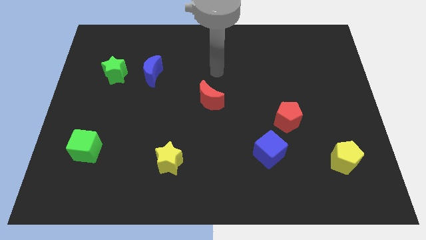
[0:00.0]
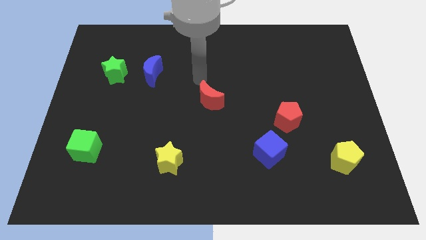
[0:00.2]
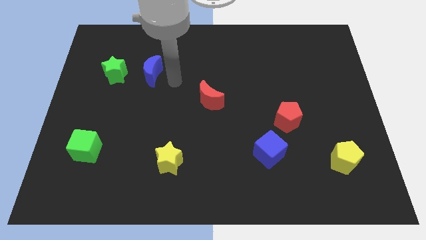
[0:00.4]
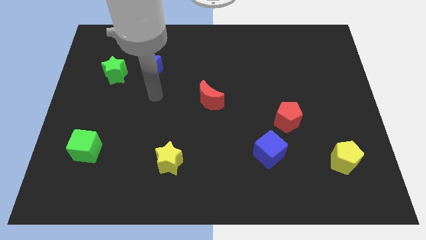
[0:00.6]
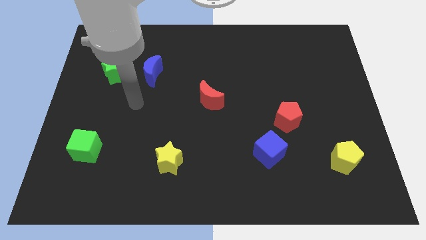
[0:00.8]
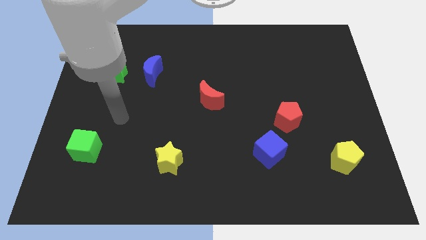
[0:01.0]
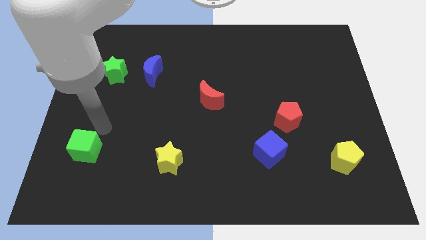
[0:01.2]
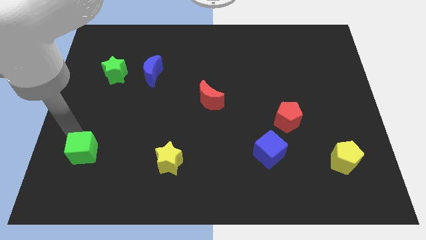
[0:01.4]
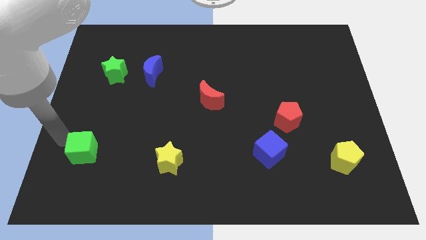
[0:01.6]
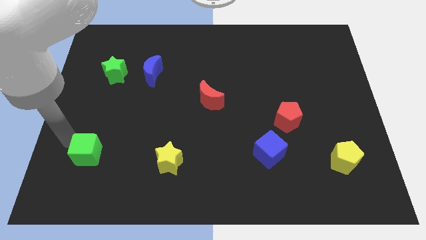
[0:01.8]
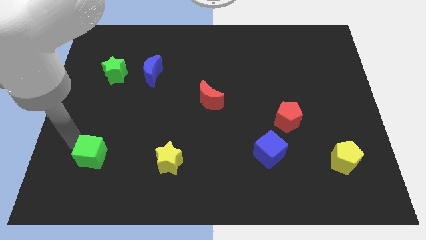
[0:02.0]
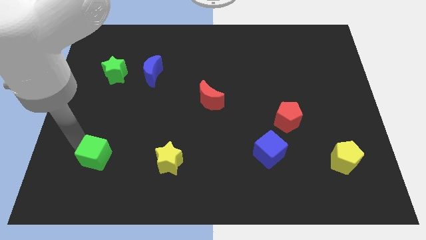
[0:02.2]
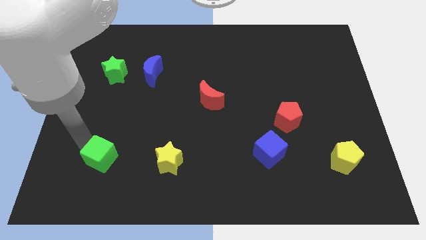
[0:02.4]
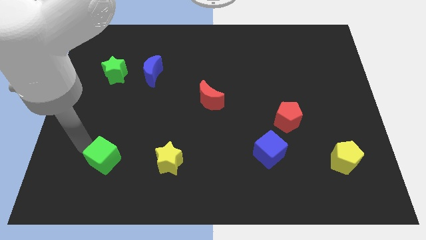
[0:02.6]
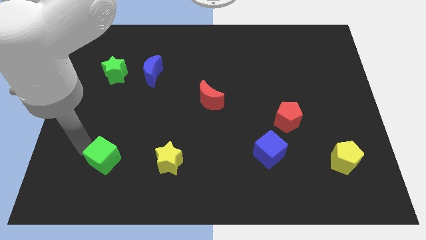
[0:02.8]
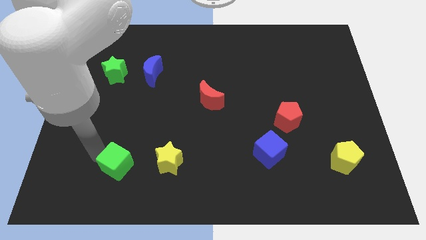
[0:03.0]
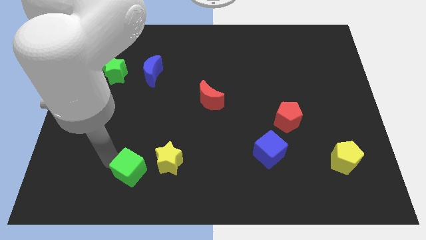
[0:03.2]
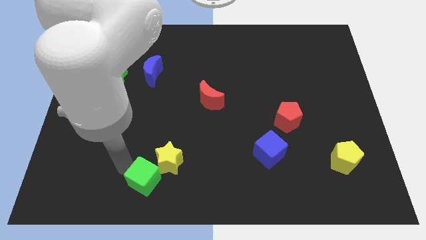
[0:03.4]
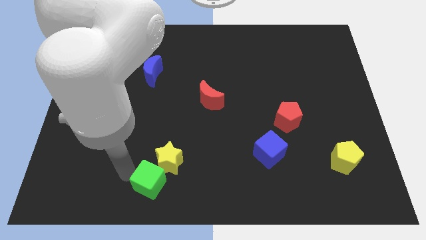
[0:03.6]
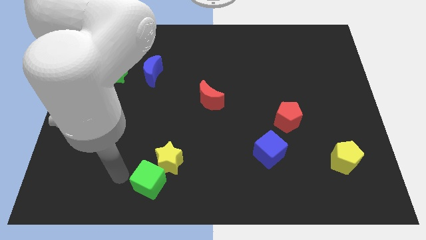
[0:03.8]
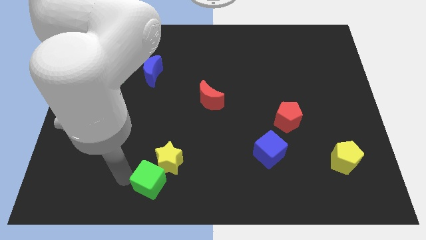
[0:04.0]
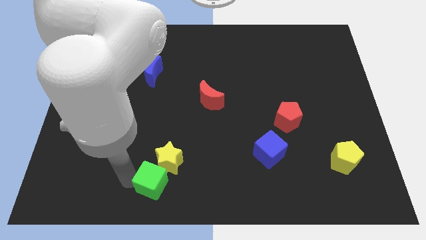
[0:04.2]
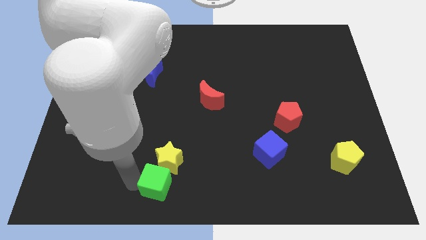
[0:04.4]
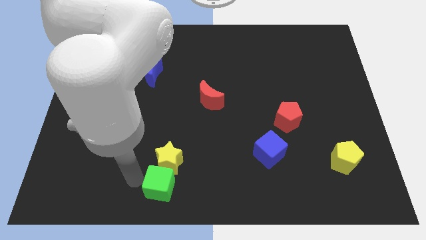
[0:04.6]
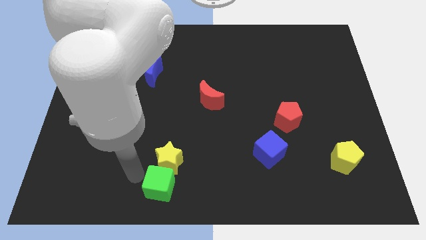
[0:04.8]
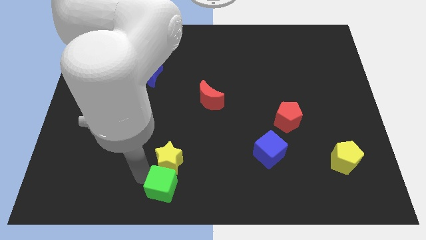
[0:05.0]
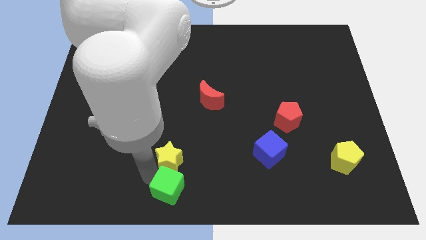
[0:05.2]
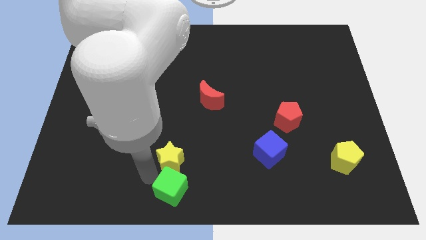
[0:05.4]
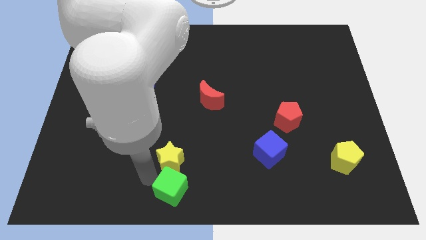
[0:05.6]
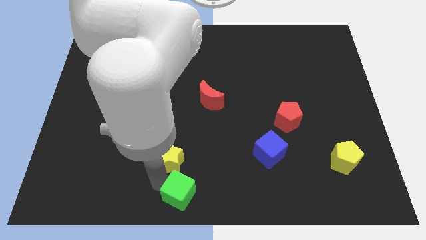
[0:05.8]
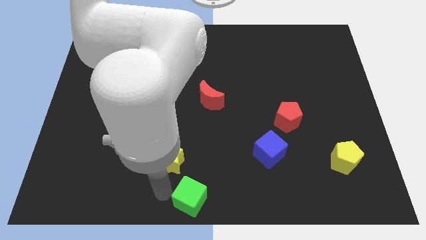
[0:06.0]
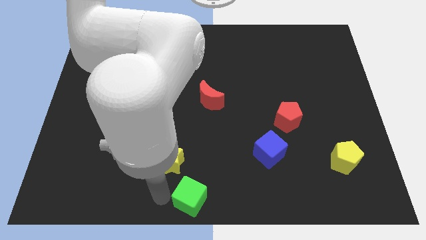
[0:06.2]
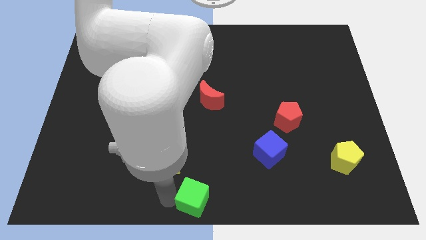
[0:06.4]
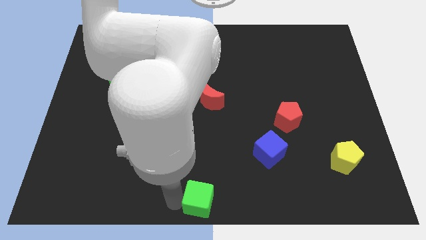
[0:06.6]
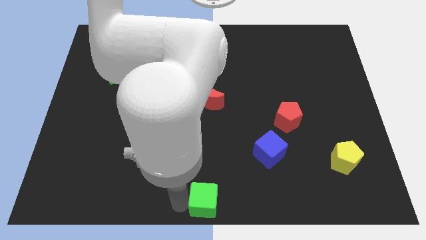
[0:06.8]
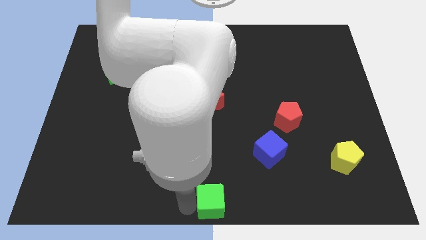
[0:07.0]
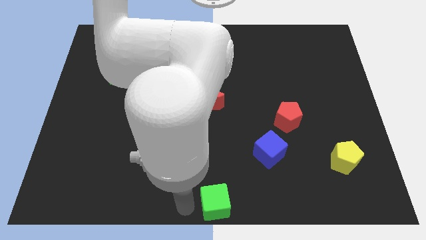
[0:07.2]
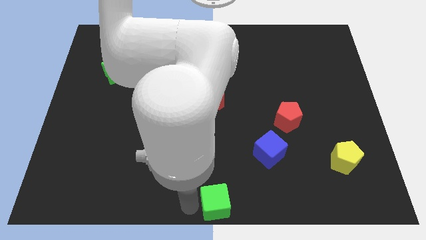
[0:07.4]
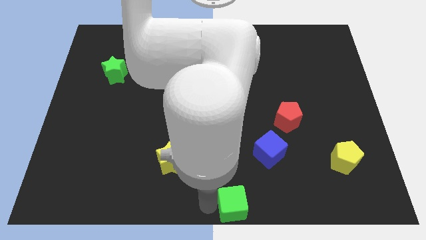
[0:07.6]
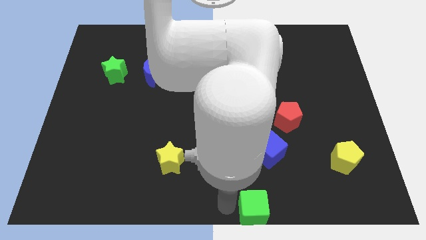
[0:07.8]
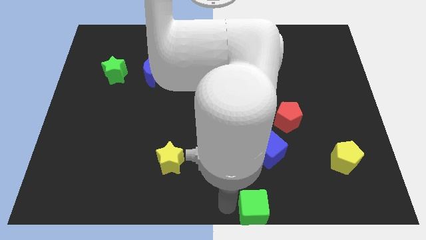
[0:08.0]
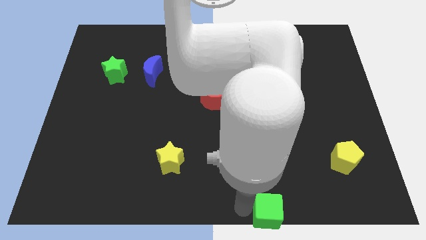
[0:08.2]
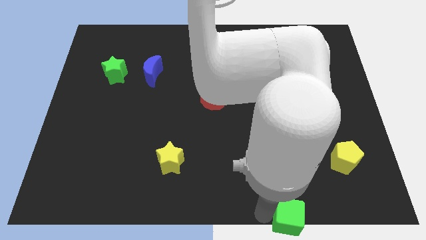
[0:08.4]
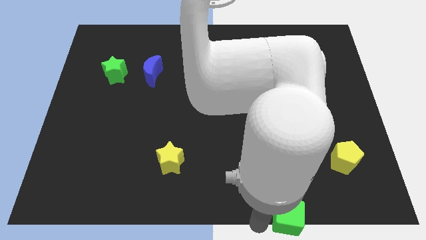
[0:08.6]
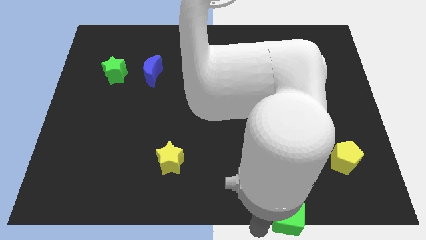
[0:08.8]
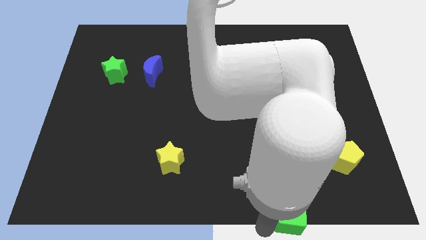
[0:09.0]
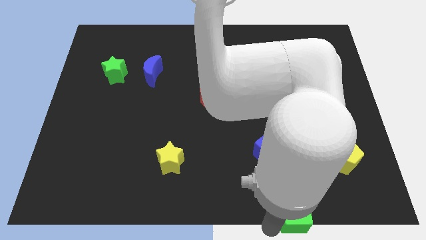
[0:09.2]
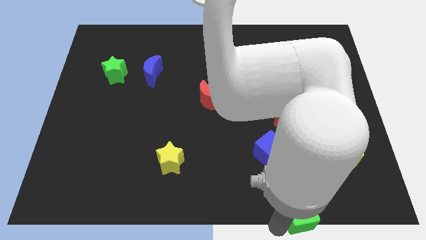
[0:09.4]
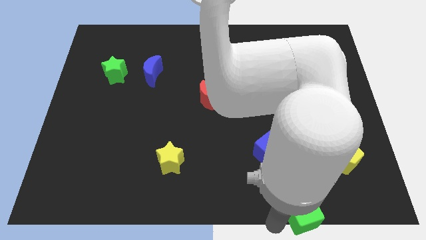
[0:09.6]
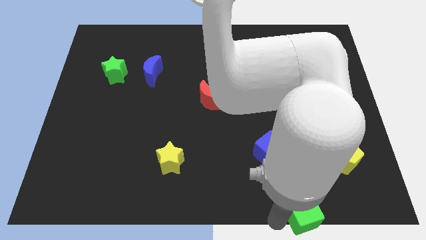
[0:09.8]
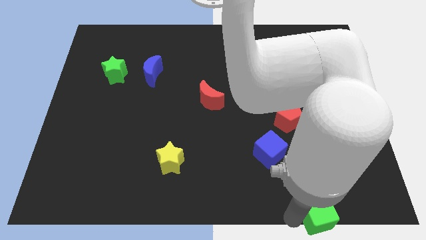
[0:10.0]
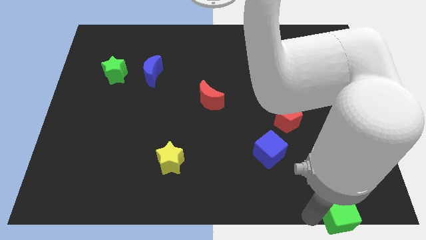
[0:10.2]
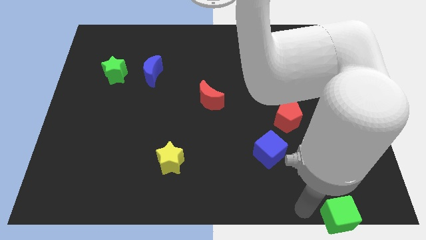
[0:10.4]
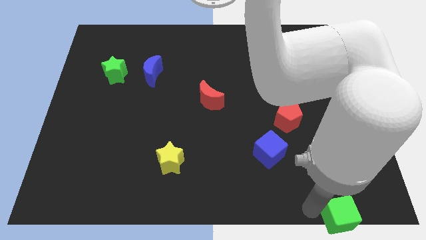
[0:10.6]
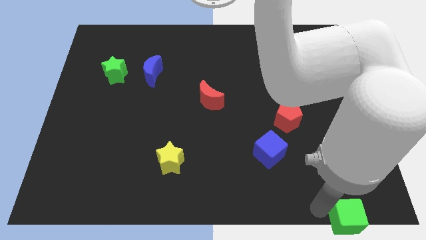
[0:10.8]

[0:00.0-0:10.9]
push the green cube to the bottom right
